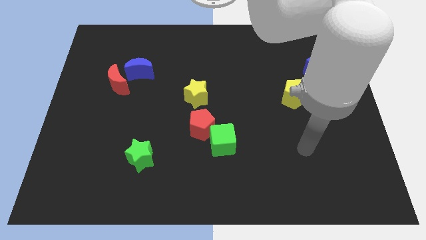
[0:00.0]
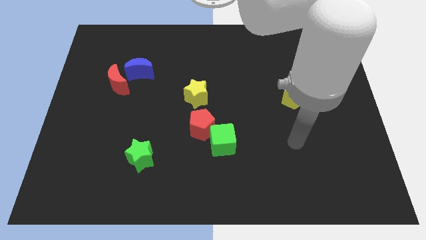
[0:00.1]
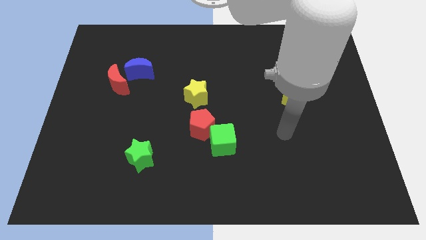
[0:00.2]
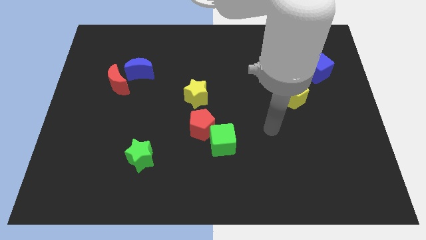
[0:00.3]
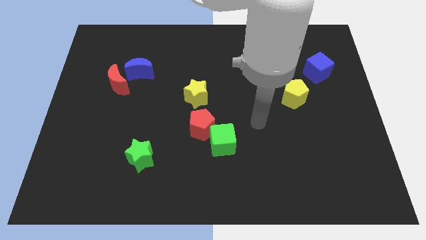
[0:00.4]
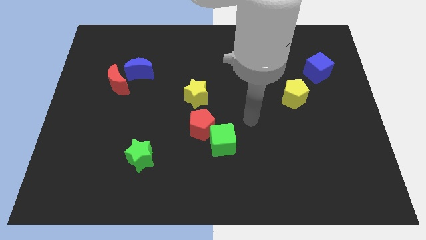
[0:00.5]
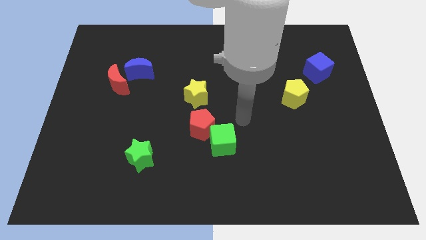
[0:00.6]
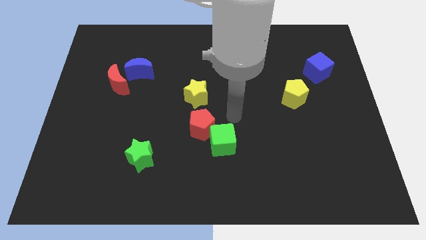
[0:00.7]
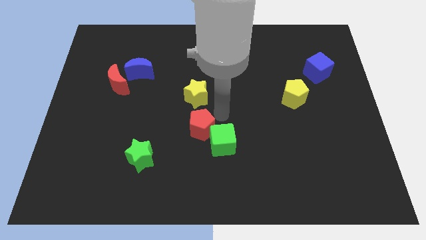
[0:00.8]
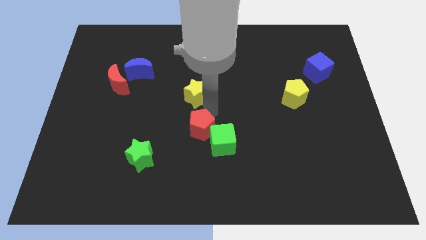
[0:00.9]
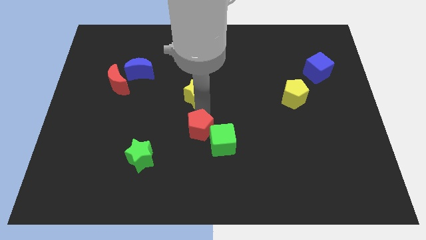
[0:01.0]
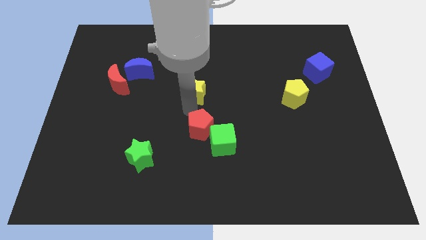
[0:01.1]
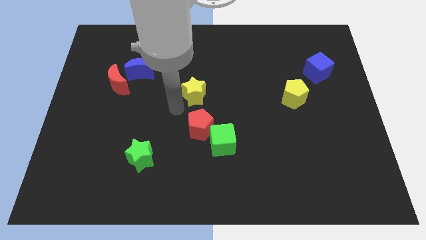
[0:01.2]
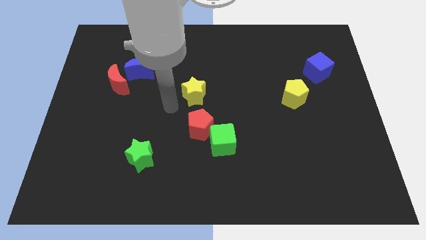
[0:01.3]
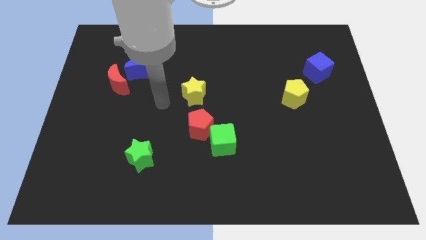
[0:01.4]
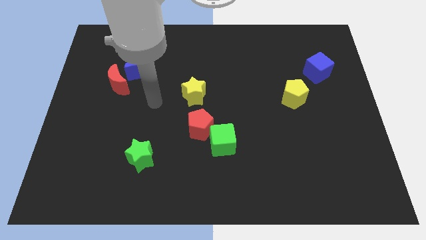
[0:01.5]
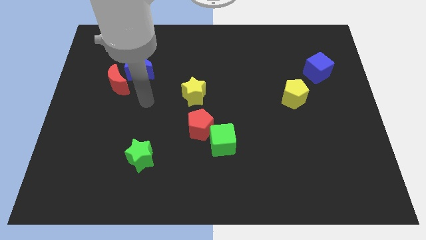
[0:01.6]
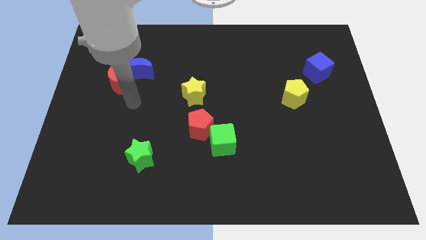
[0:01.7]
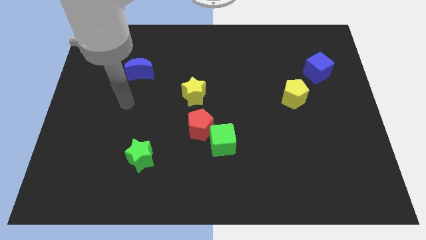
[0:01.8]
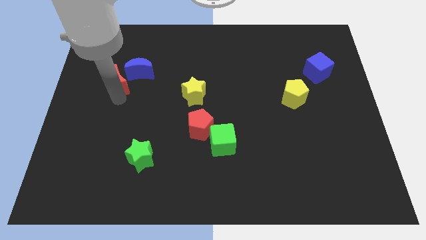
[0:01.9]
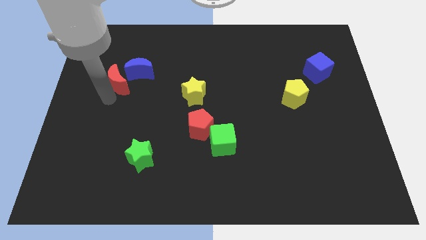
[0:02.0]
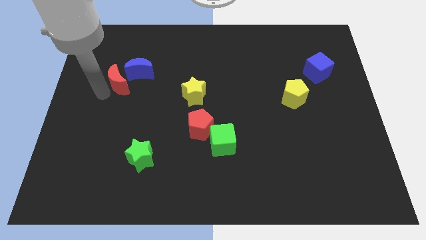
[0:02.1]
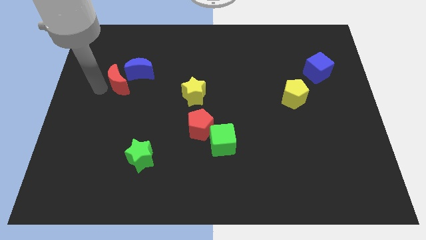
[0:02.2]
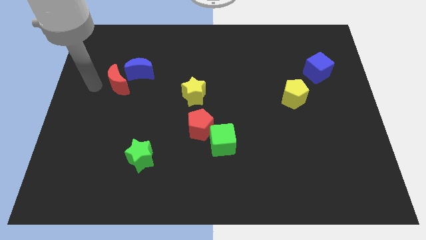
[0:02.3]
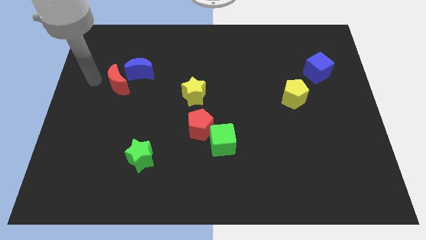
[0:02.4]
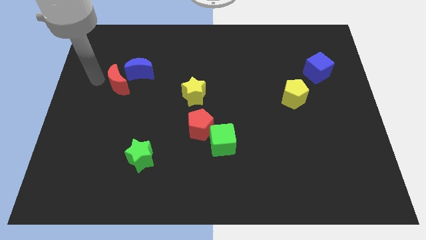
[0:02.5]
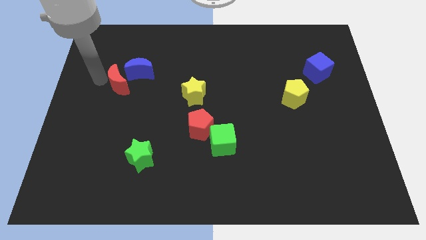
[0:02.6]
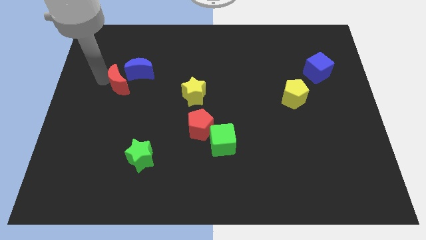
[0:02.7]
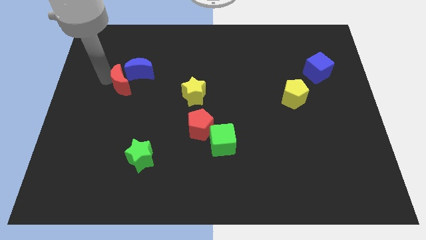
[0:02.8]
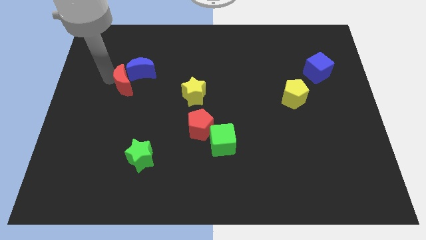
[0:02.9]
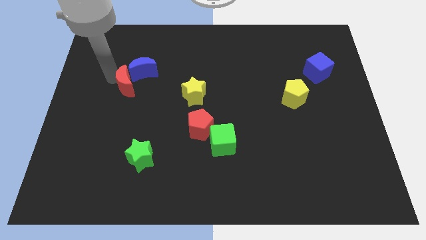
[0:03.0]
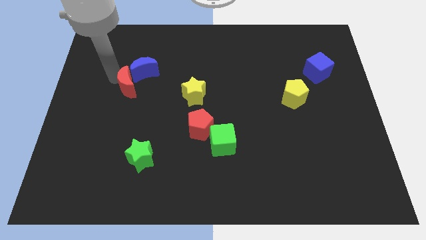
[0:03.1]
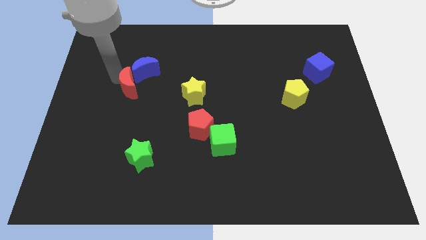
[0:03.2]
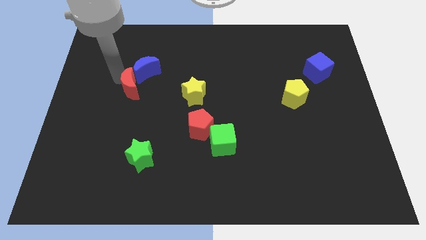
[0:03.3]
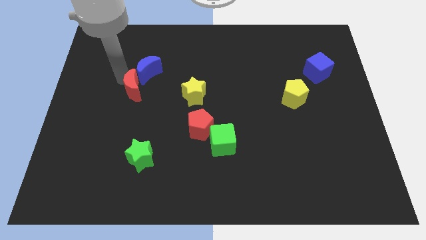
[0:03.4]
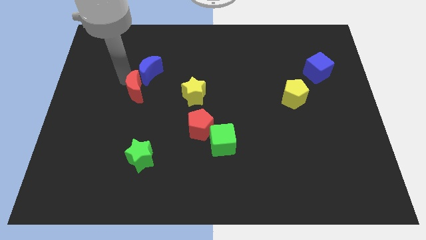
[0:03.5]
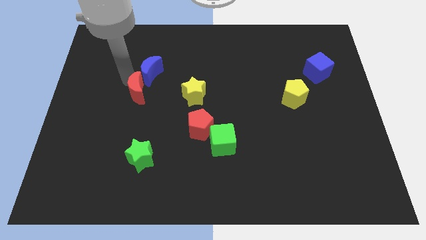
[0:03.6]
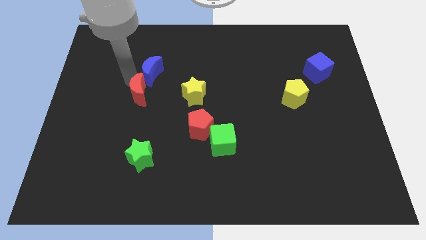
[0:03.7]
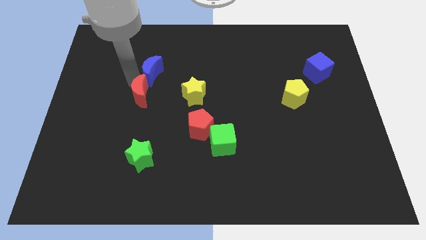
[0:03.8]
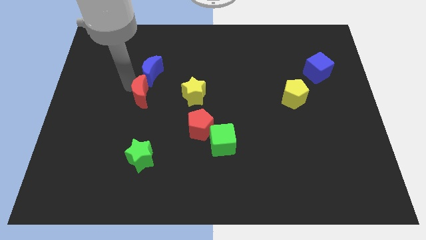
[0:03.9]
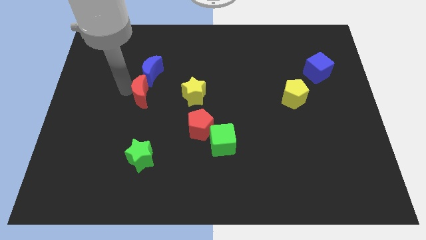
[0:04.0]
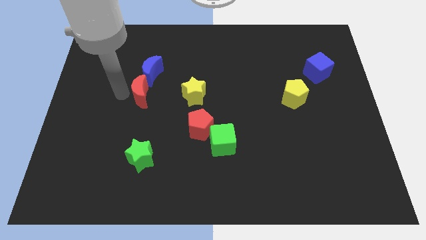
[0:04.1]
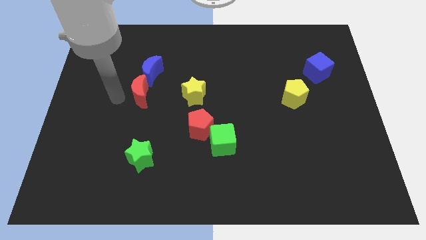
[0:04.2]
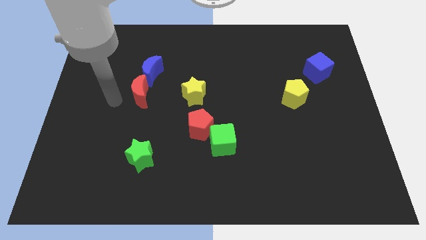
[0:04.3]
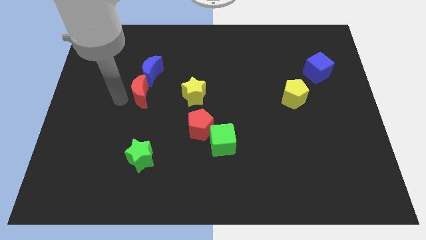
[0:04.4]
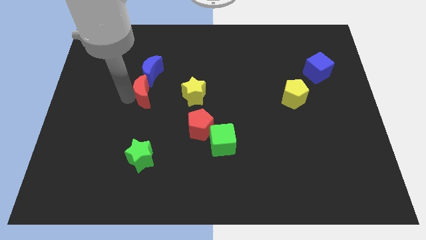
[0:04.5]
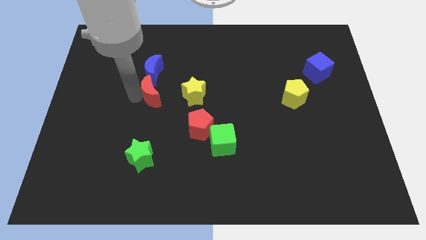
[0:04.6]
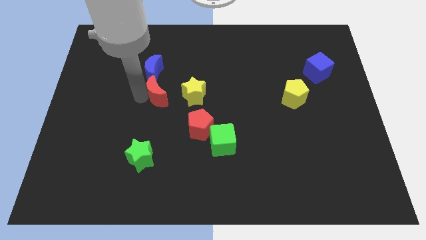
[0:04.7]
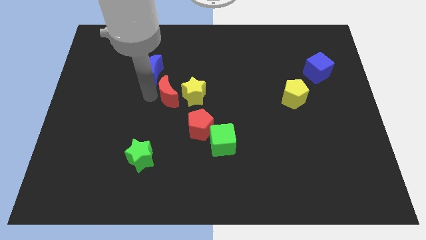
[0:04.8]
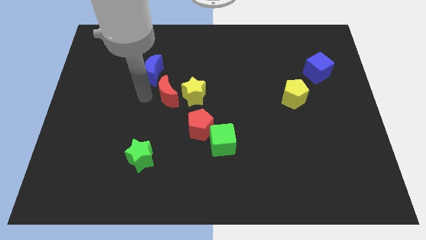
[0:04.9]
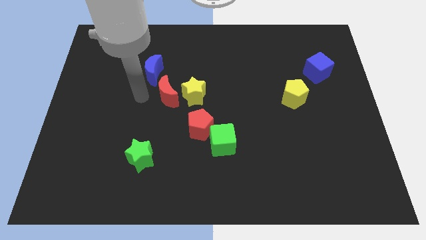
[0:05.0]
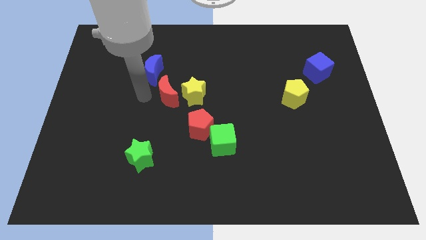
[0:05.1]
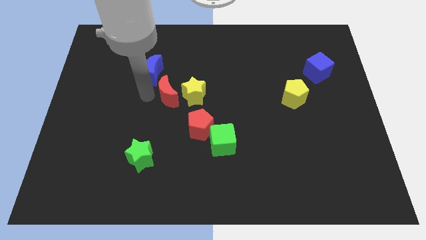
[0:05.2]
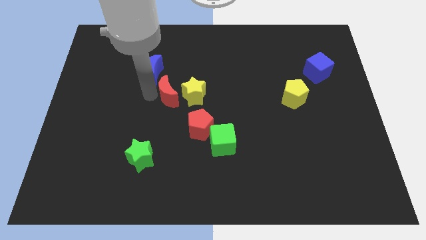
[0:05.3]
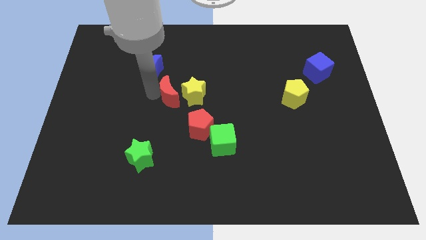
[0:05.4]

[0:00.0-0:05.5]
slide the red moon next to the yellow star

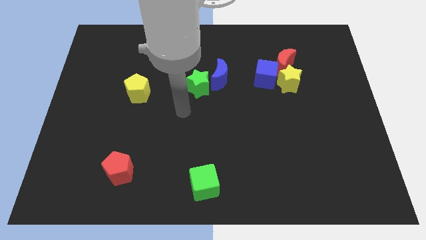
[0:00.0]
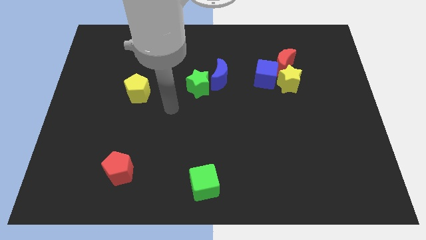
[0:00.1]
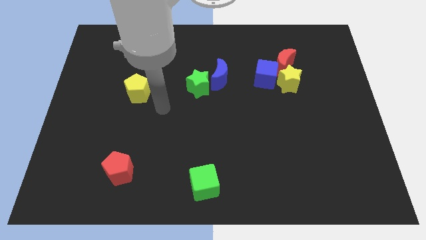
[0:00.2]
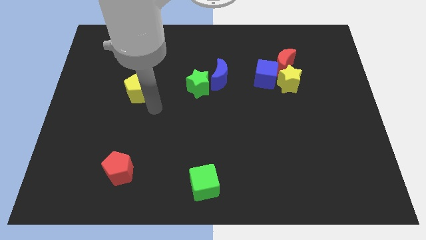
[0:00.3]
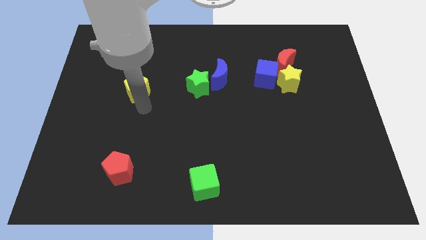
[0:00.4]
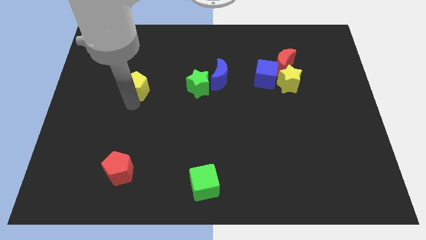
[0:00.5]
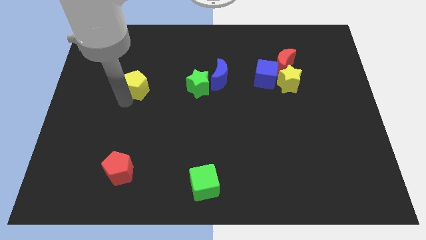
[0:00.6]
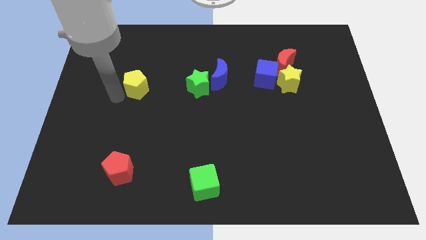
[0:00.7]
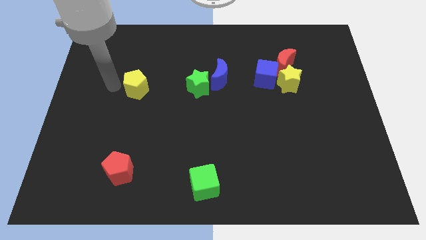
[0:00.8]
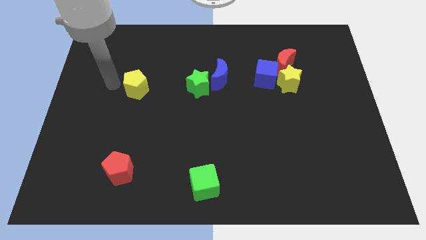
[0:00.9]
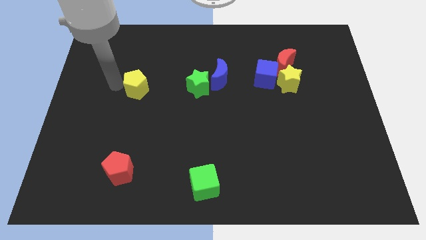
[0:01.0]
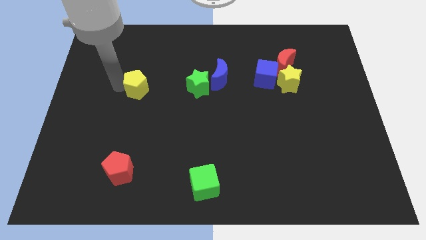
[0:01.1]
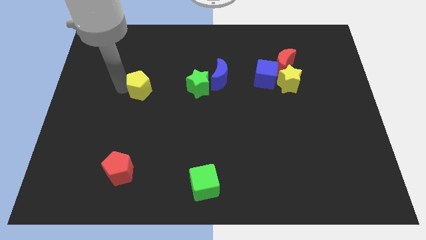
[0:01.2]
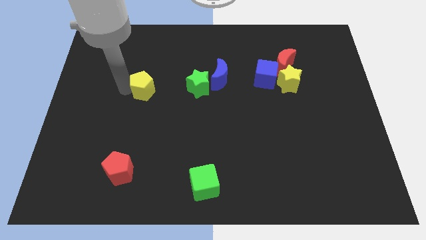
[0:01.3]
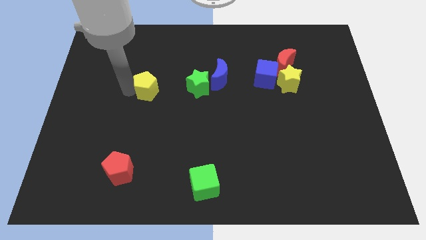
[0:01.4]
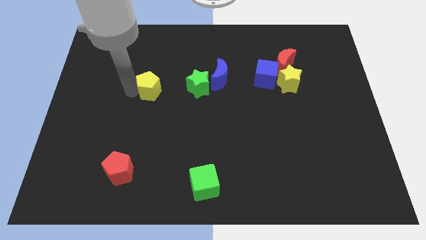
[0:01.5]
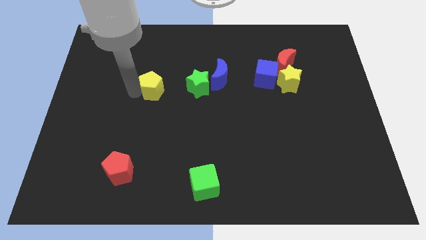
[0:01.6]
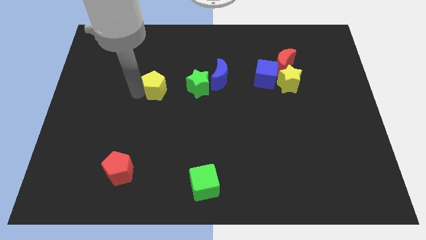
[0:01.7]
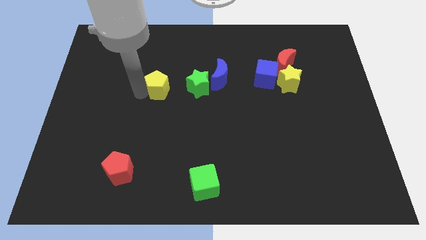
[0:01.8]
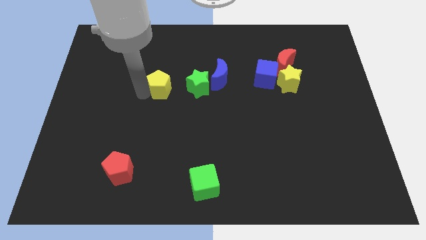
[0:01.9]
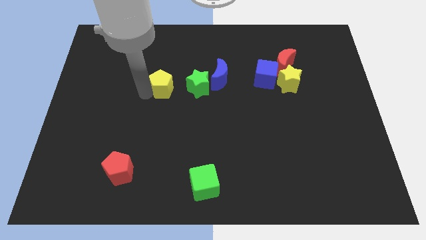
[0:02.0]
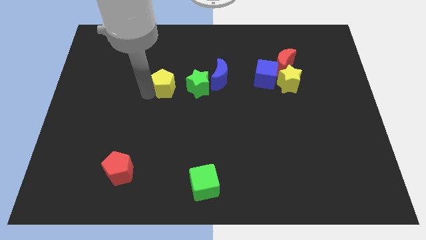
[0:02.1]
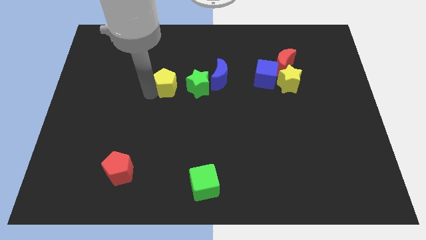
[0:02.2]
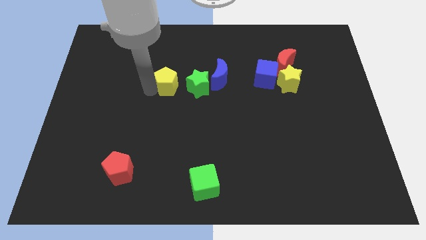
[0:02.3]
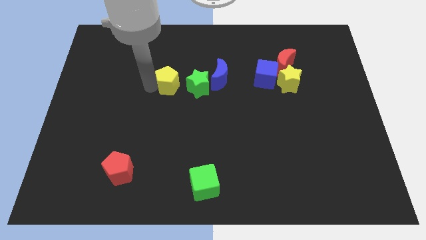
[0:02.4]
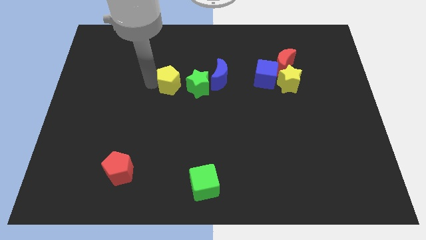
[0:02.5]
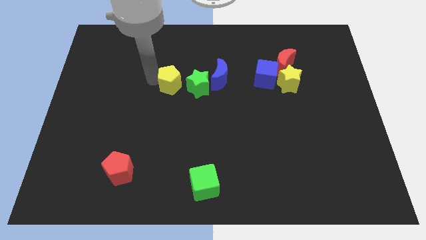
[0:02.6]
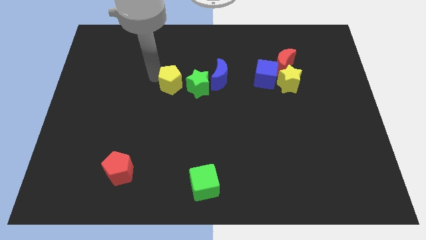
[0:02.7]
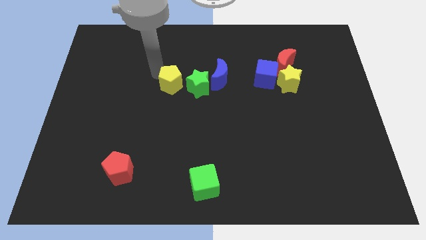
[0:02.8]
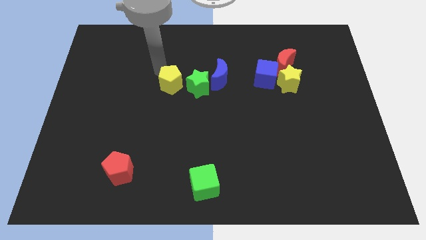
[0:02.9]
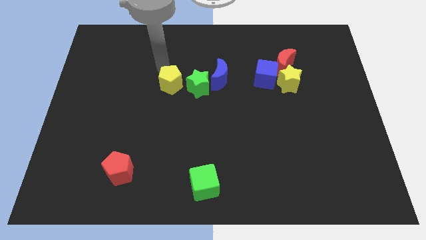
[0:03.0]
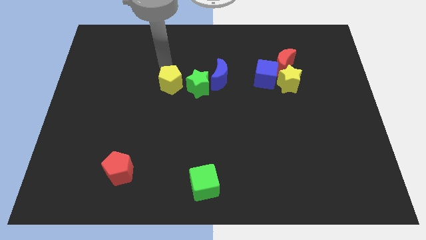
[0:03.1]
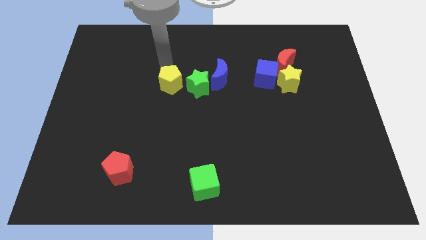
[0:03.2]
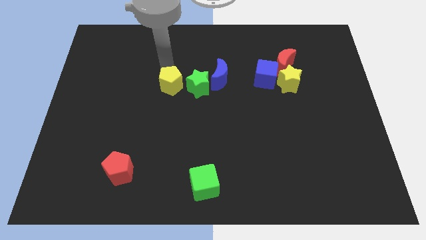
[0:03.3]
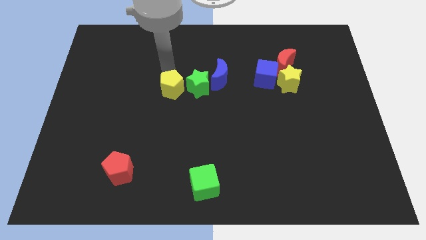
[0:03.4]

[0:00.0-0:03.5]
put the yellow pentagon to the green star
